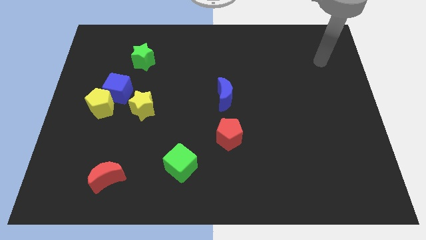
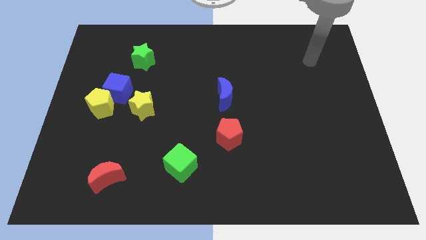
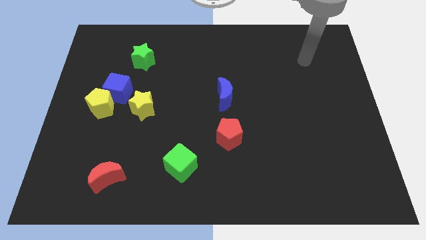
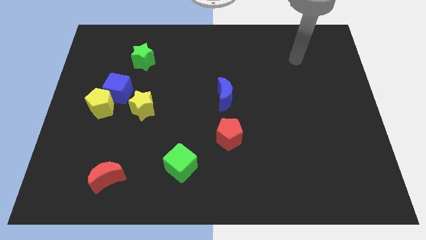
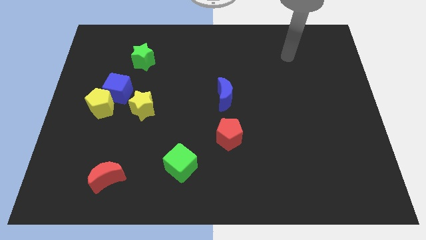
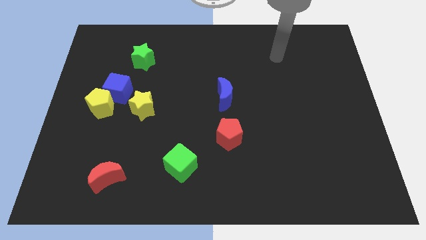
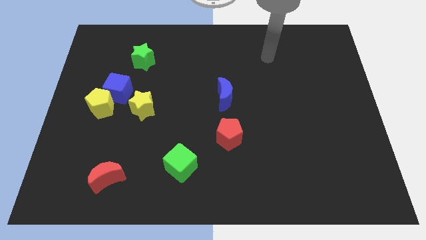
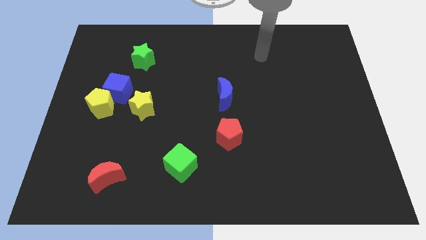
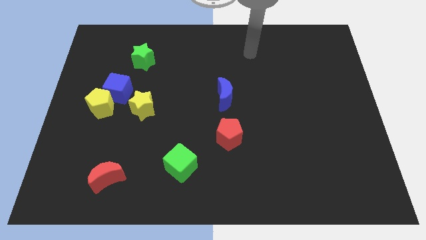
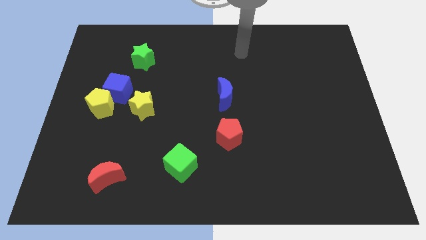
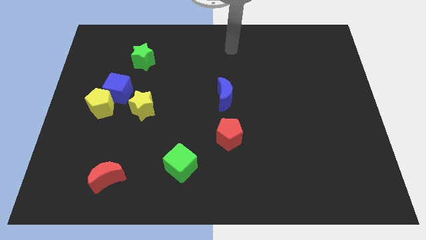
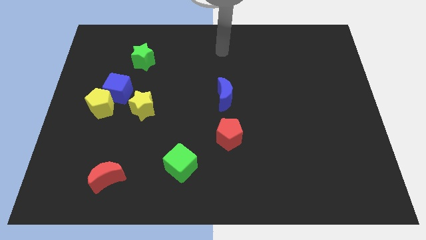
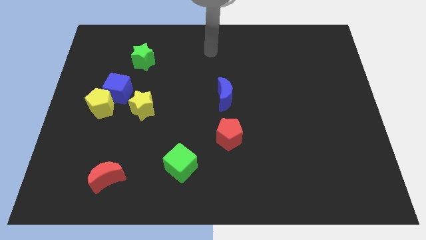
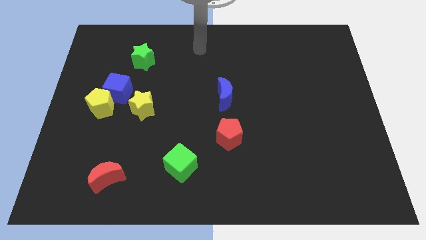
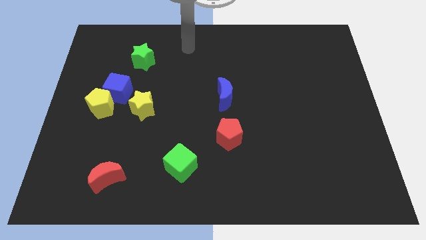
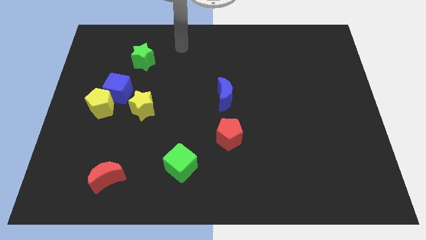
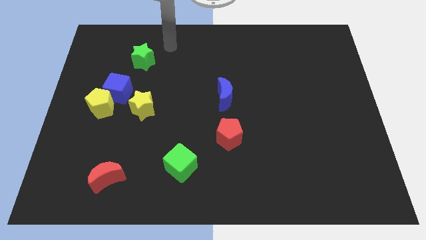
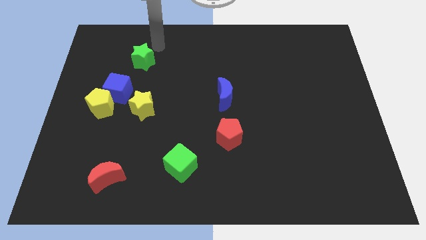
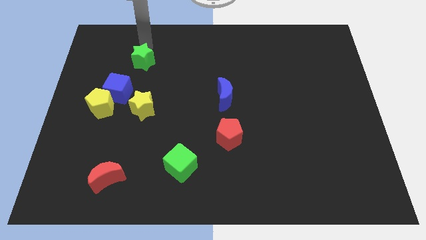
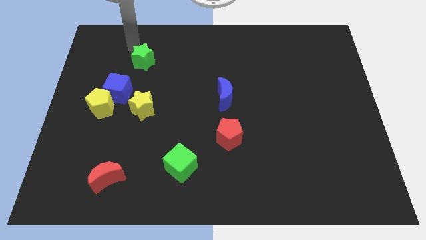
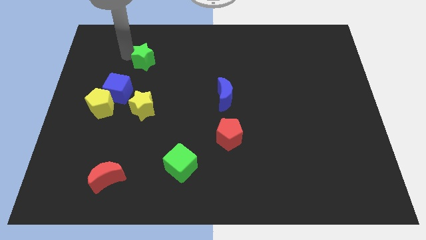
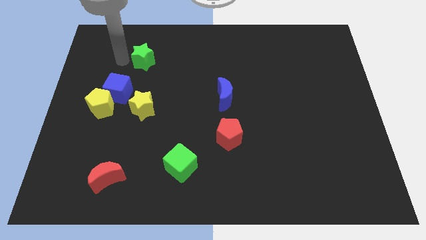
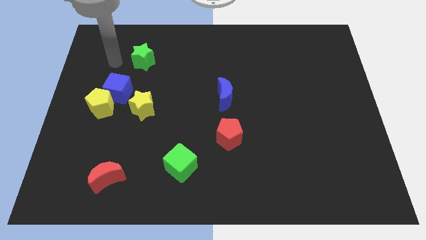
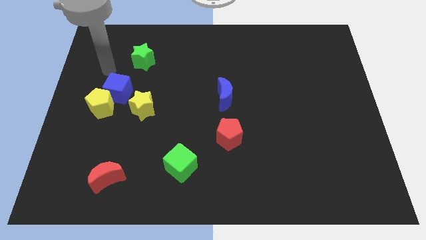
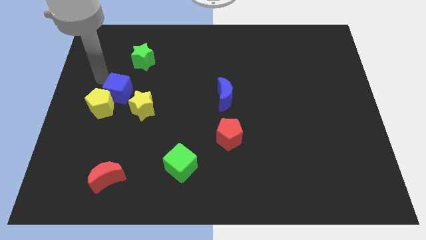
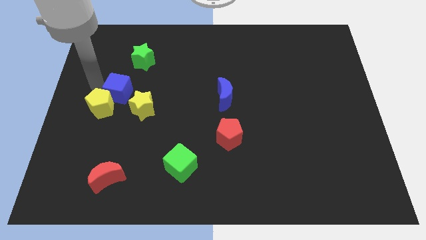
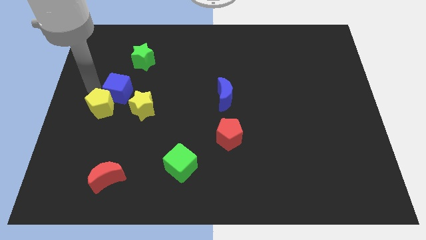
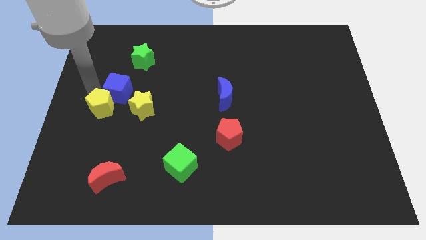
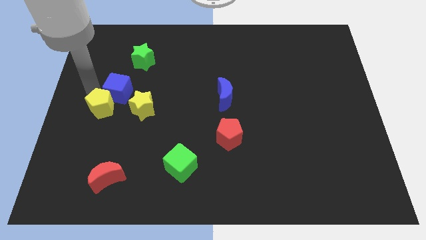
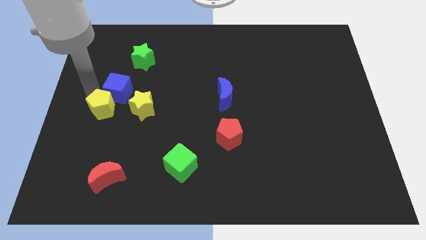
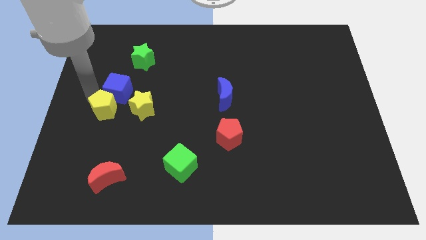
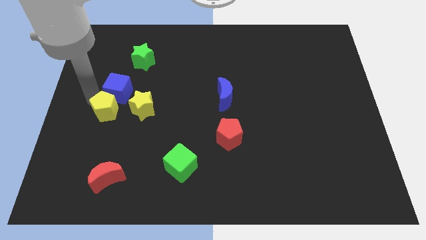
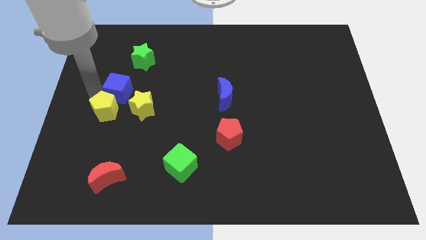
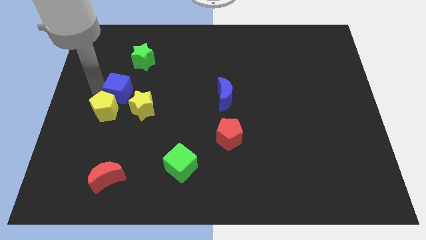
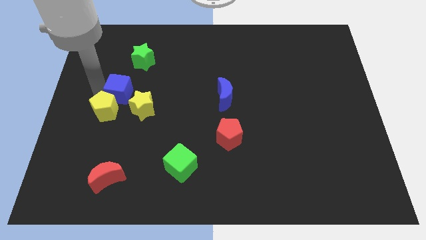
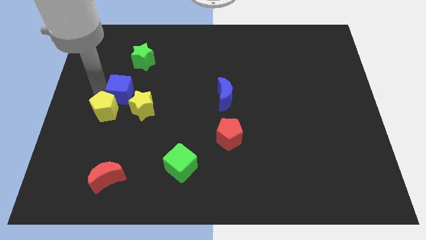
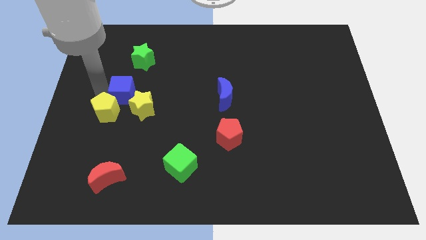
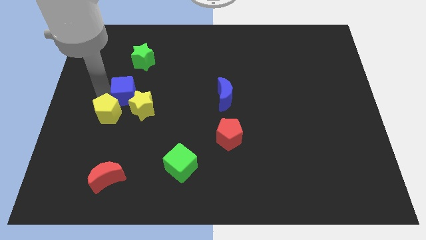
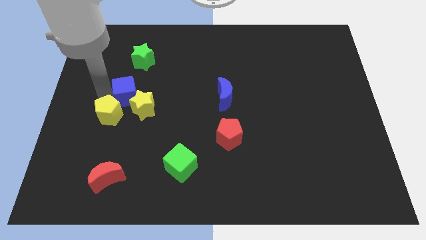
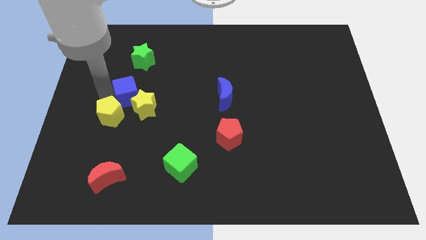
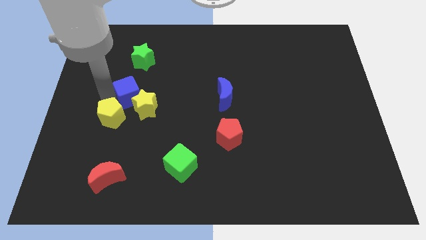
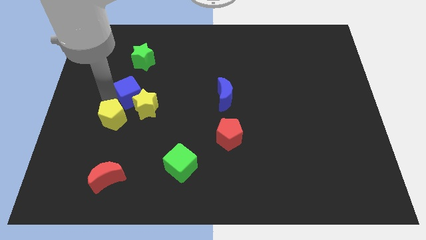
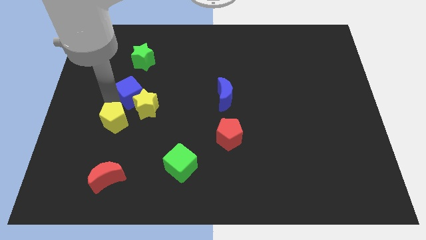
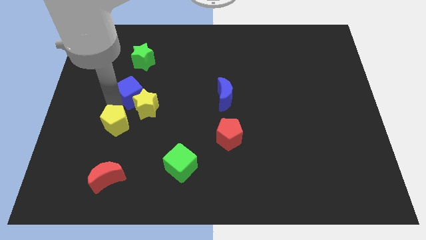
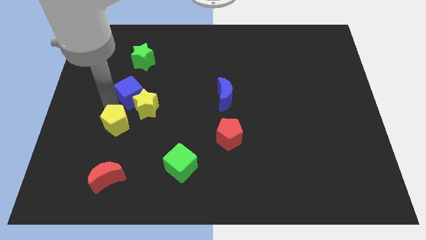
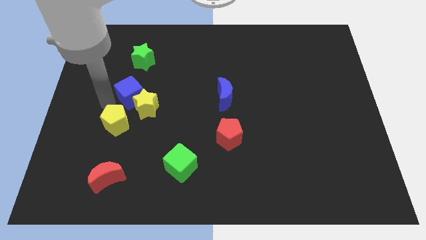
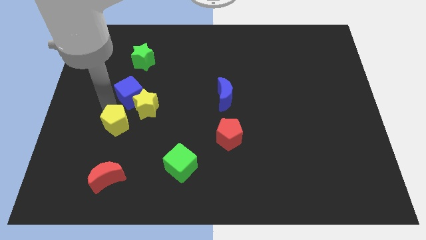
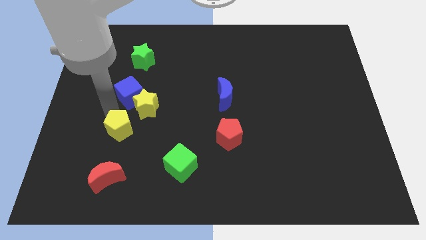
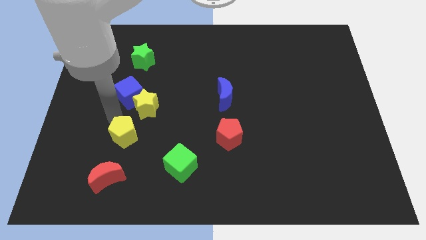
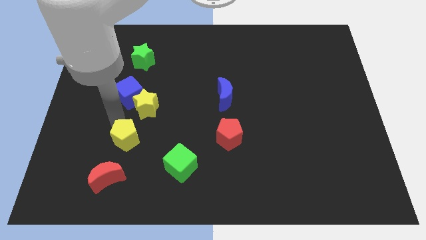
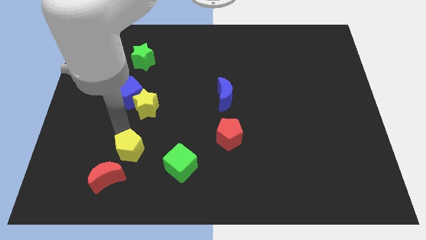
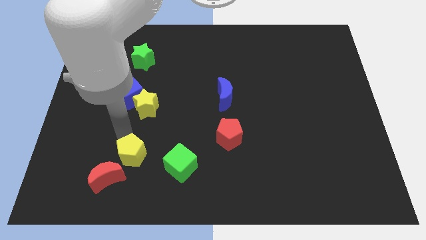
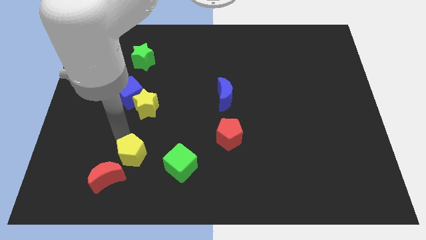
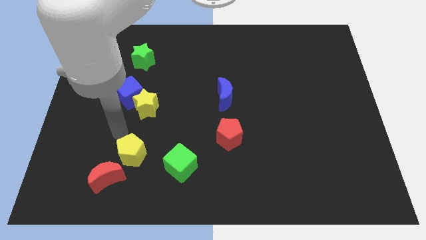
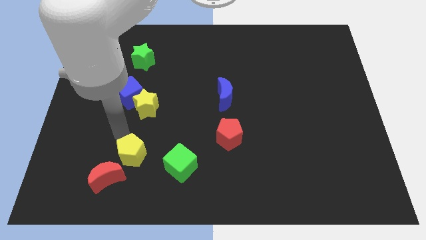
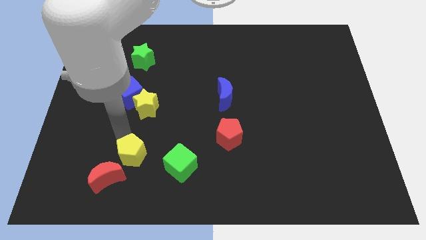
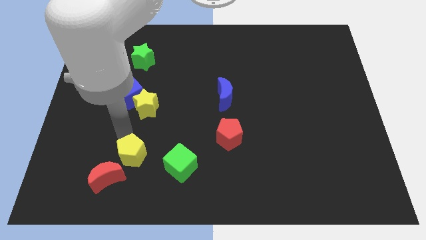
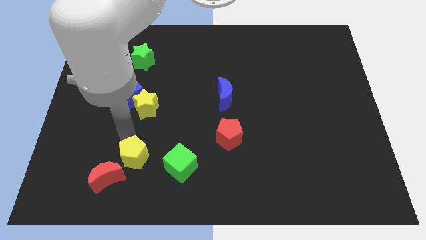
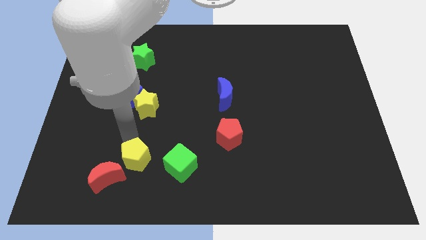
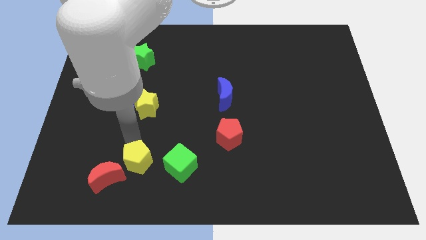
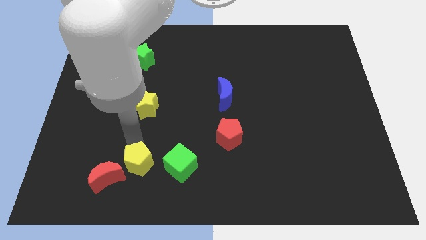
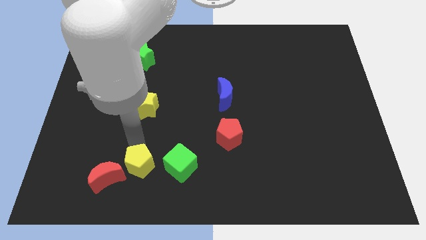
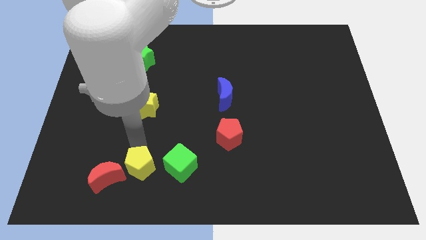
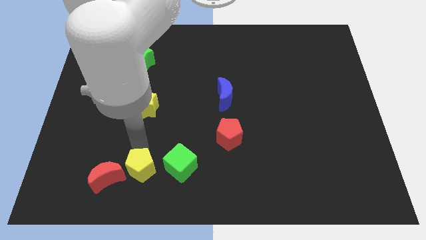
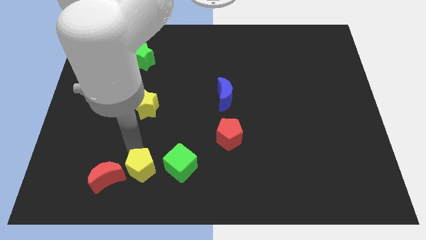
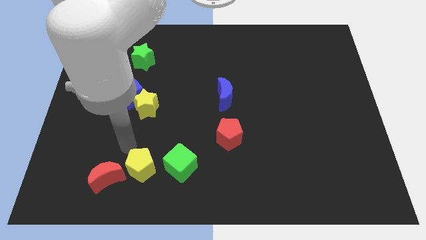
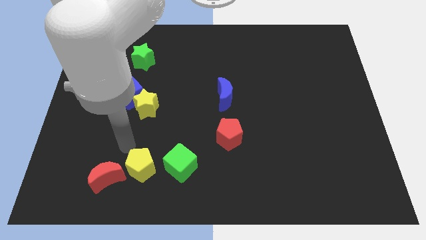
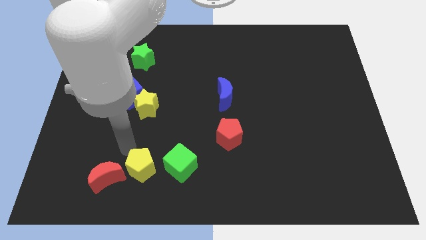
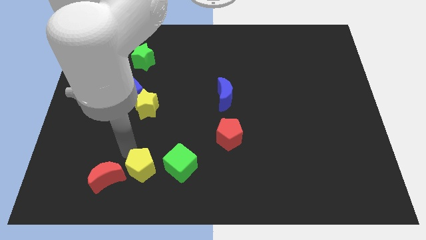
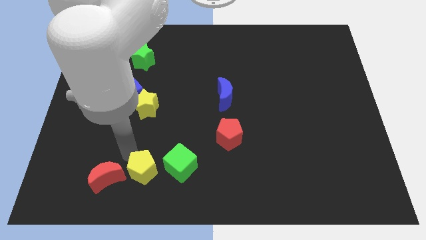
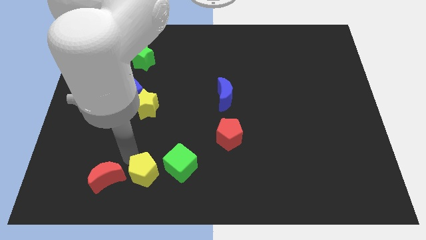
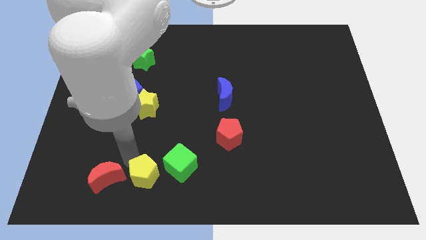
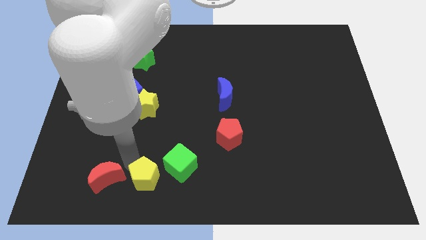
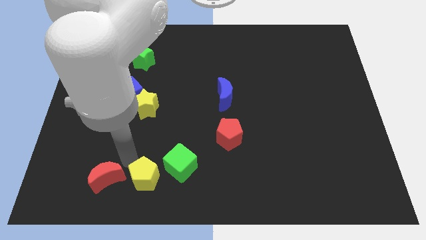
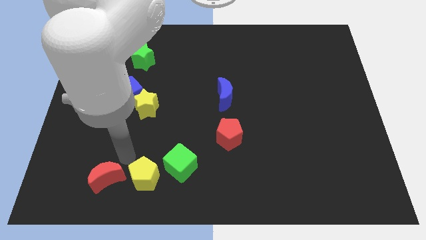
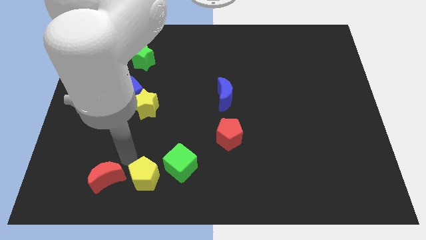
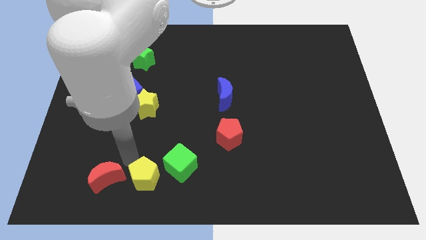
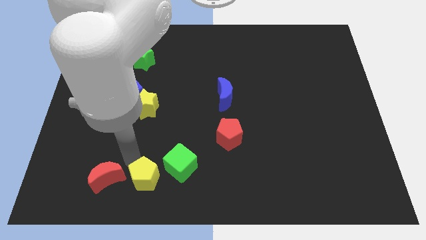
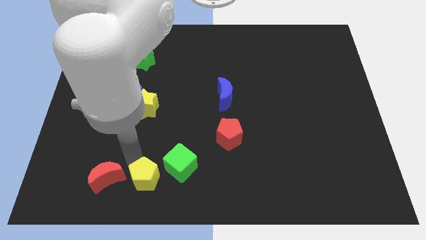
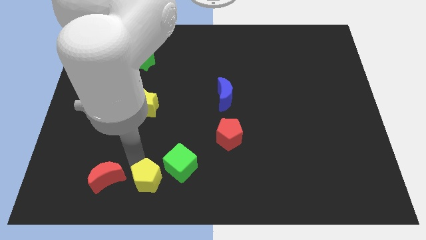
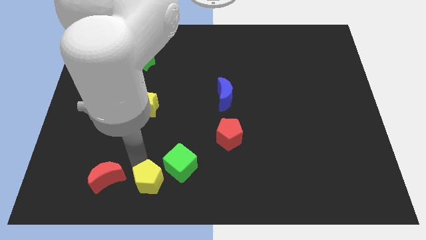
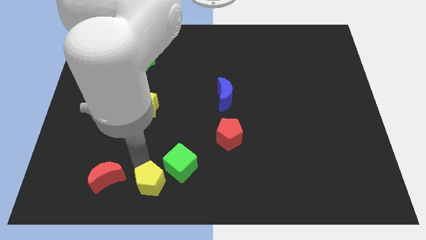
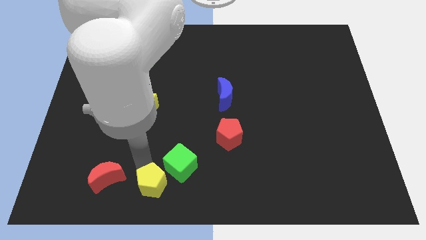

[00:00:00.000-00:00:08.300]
move the yellow pentagon to the bottom
